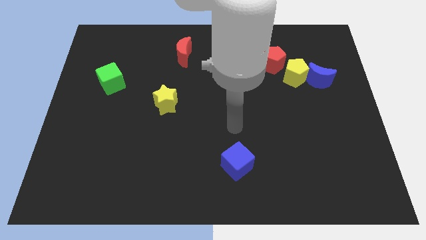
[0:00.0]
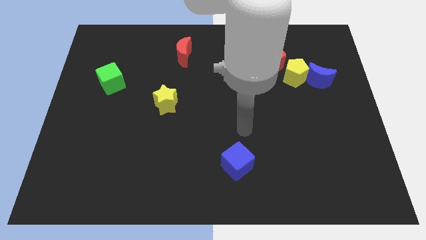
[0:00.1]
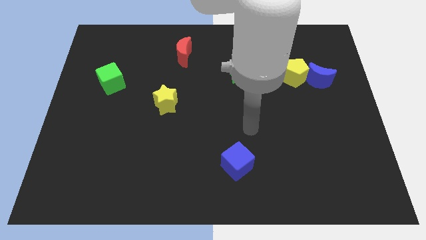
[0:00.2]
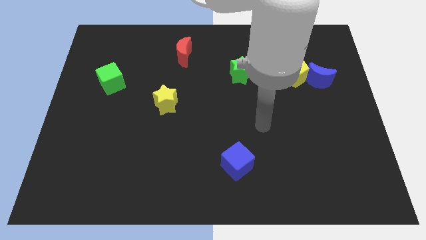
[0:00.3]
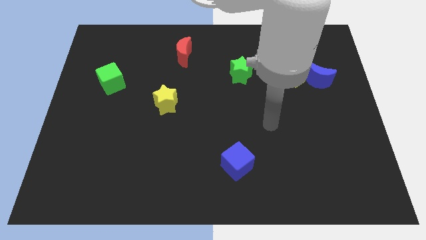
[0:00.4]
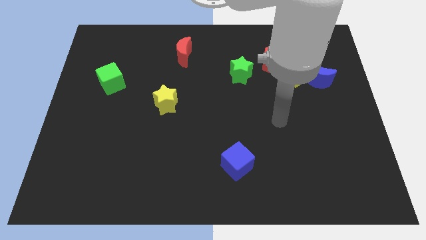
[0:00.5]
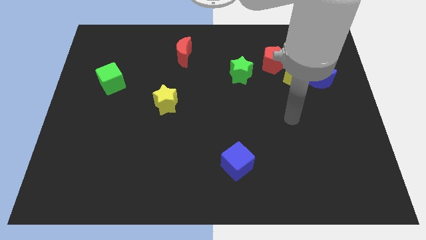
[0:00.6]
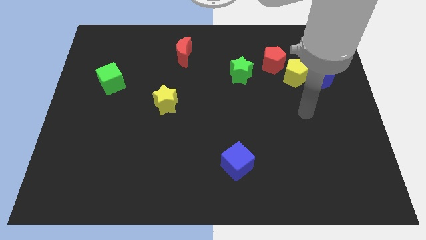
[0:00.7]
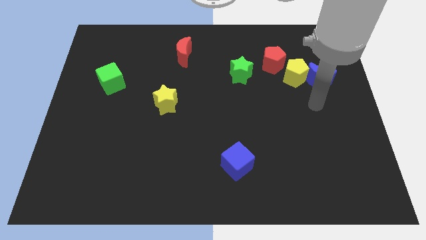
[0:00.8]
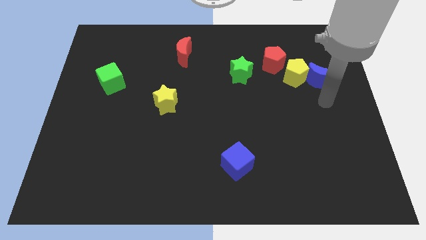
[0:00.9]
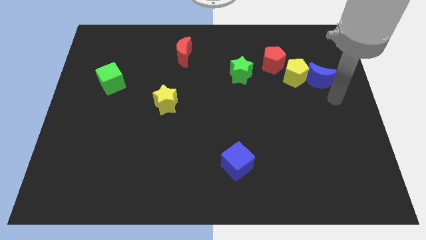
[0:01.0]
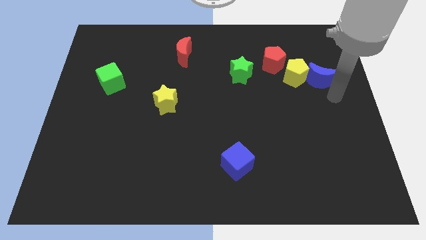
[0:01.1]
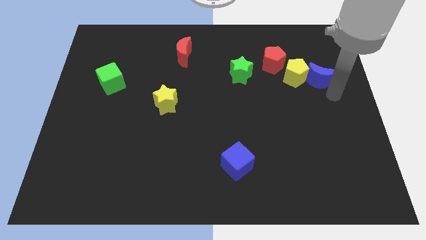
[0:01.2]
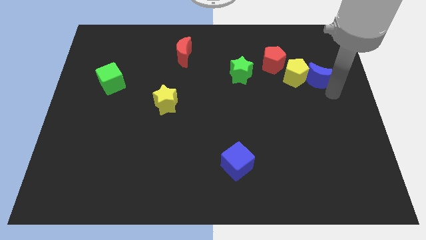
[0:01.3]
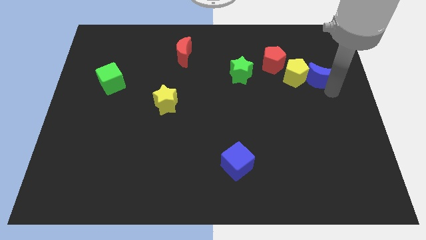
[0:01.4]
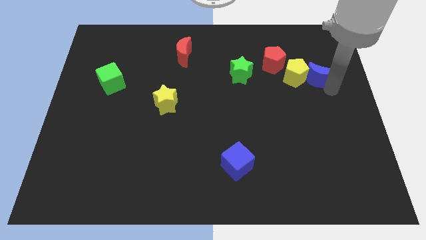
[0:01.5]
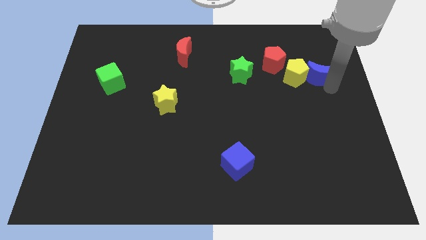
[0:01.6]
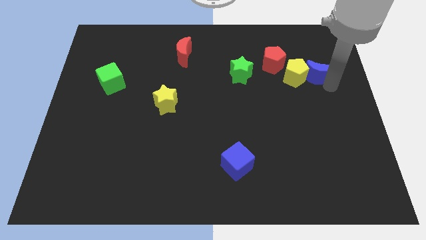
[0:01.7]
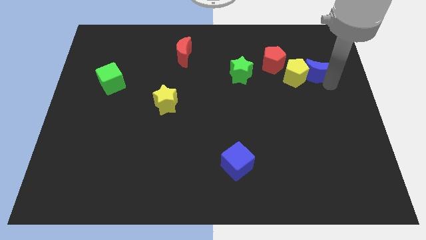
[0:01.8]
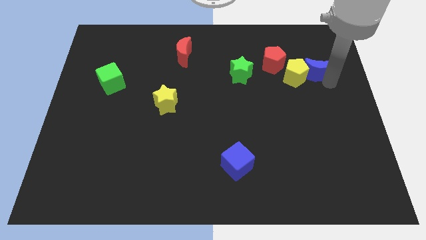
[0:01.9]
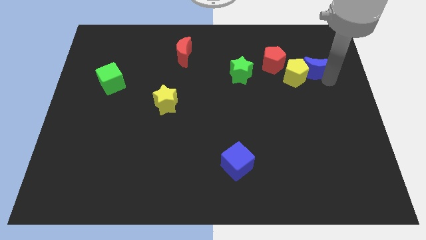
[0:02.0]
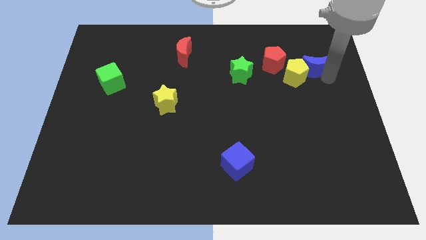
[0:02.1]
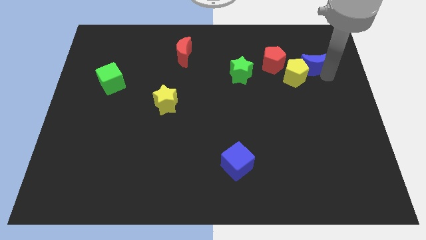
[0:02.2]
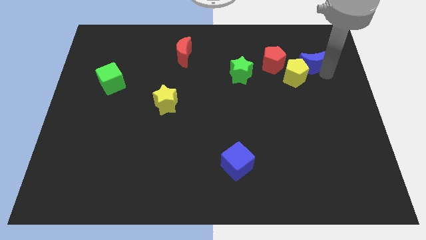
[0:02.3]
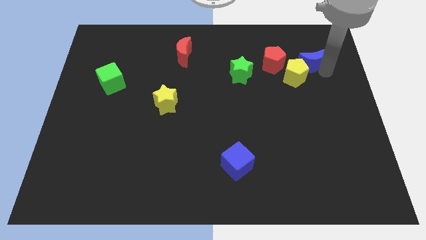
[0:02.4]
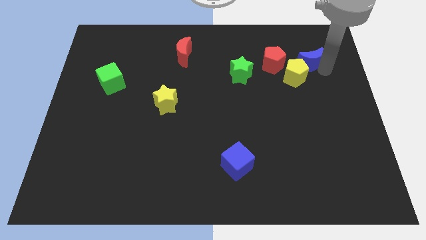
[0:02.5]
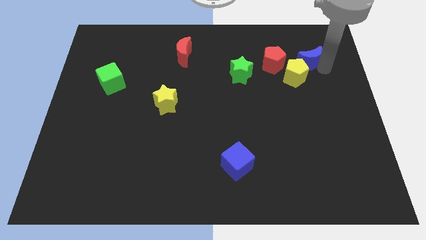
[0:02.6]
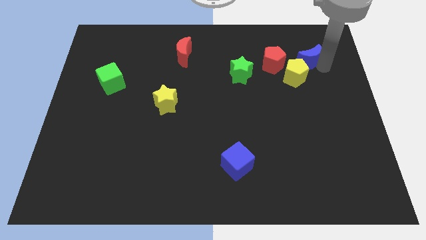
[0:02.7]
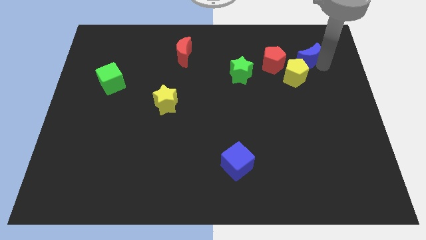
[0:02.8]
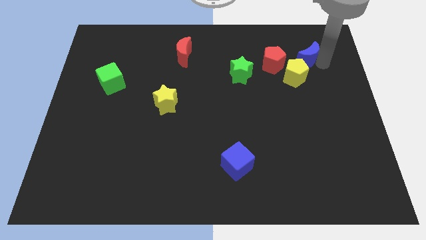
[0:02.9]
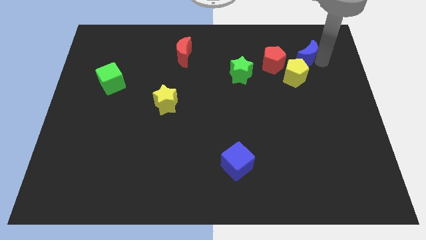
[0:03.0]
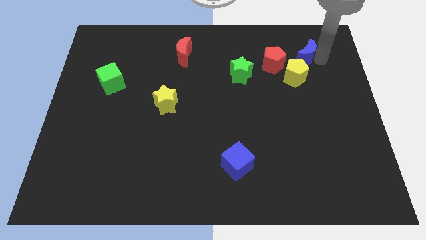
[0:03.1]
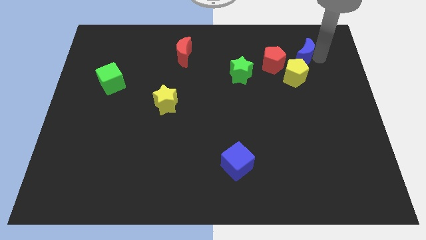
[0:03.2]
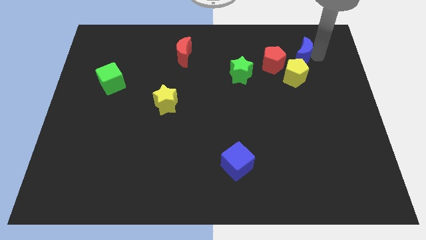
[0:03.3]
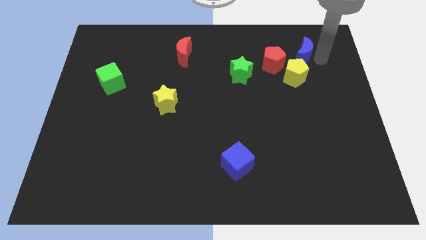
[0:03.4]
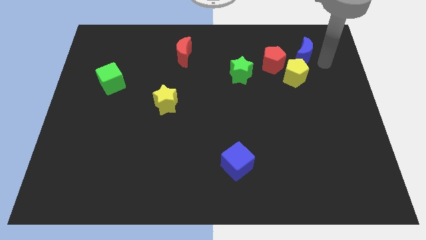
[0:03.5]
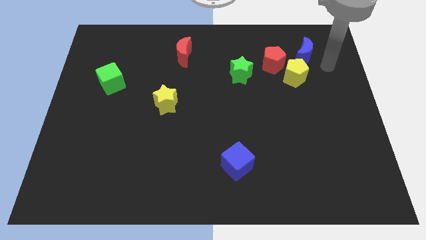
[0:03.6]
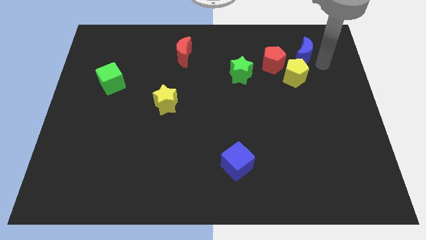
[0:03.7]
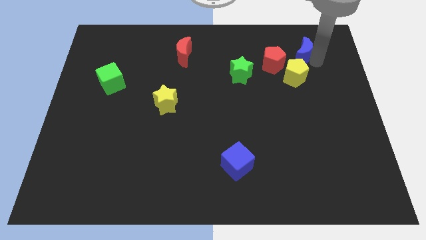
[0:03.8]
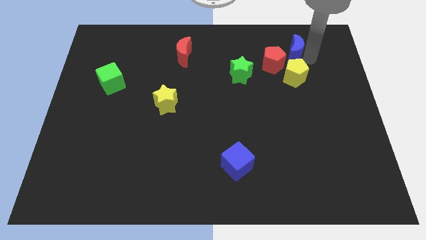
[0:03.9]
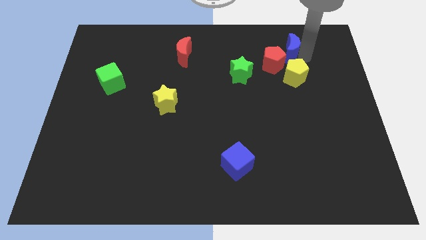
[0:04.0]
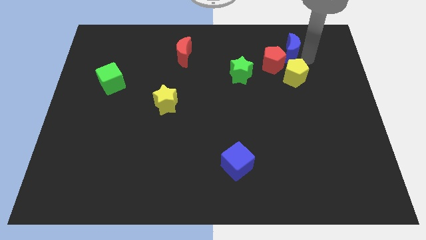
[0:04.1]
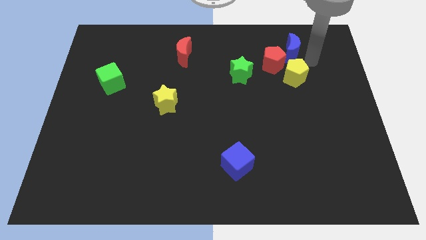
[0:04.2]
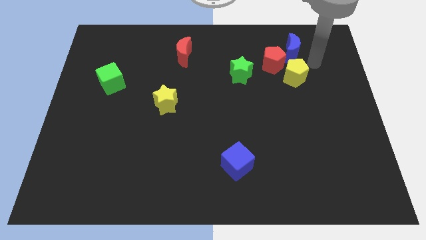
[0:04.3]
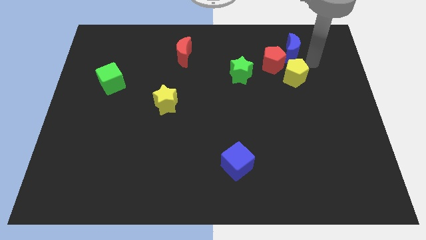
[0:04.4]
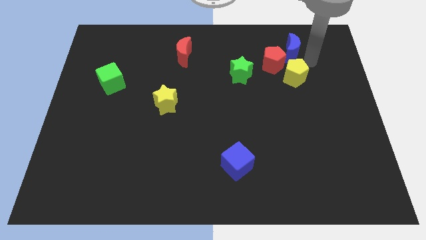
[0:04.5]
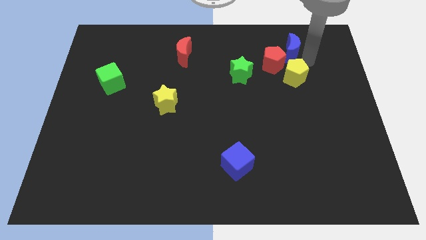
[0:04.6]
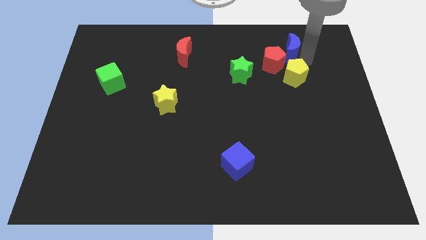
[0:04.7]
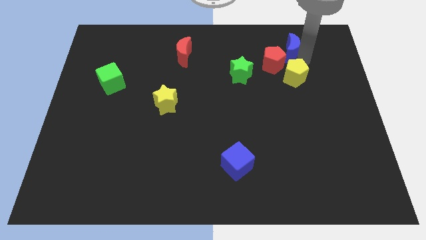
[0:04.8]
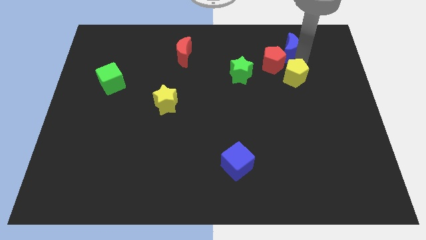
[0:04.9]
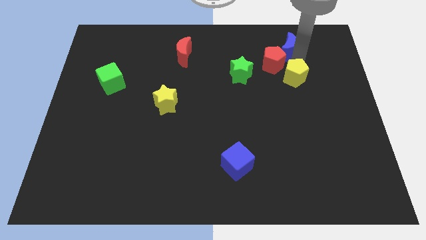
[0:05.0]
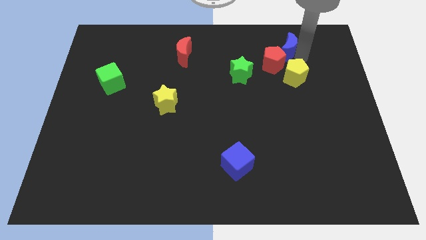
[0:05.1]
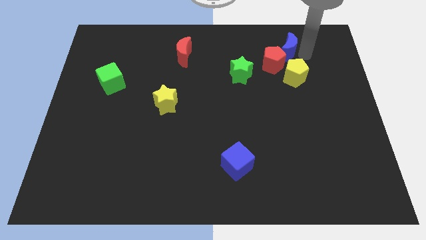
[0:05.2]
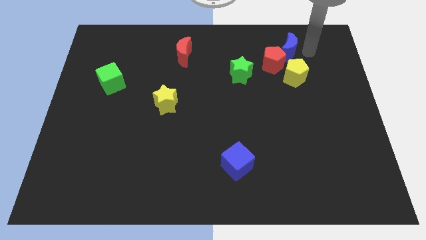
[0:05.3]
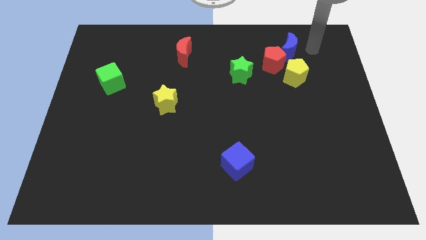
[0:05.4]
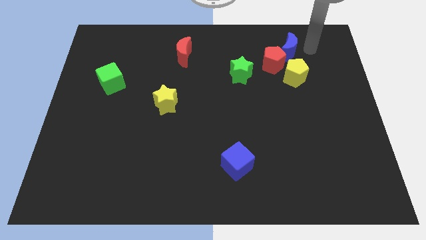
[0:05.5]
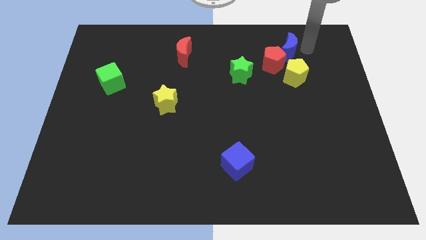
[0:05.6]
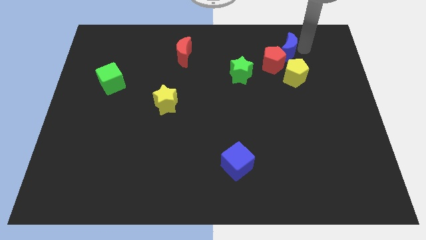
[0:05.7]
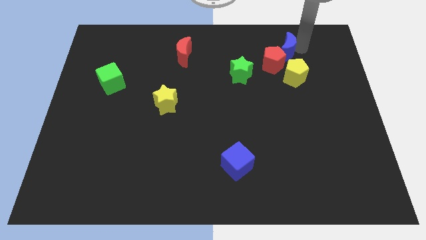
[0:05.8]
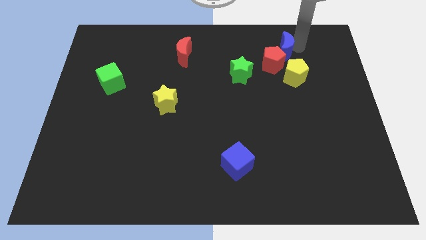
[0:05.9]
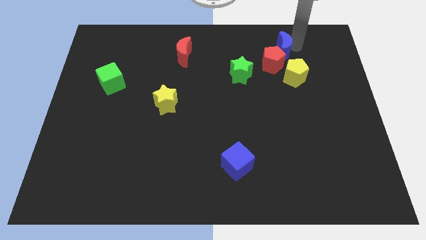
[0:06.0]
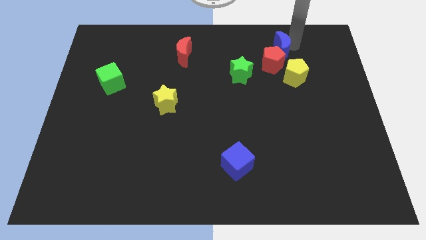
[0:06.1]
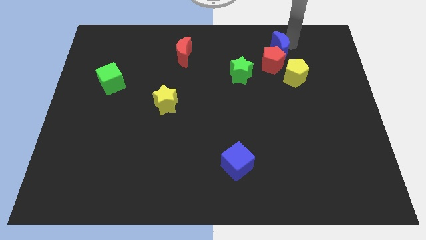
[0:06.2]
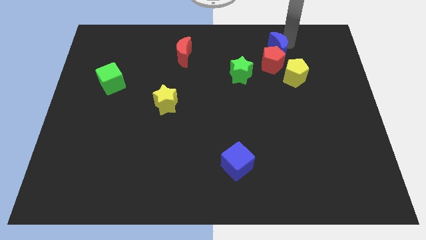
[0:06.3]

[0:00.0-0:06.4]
slide the blue moon to the top left side of the yellow pentagon

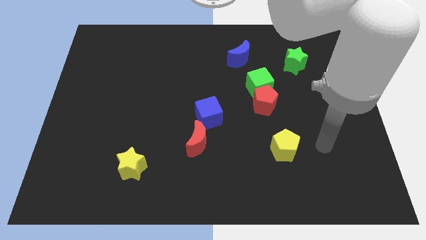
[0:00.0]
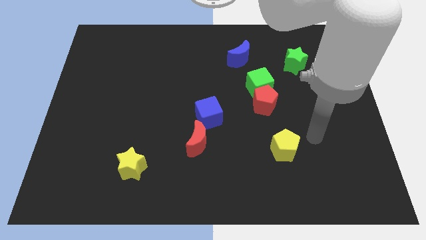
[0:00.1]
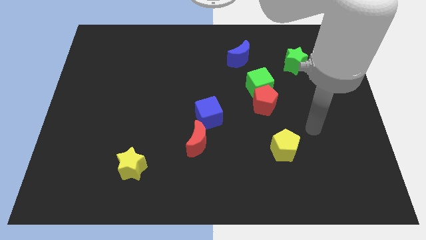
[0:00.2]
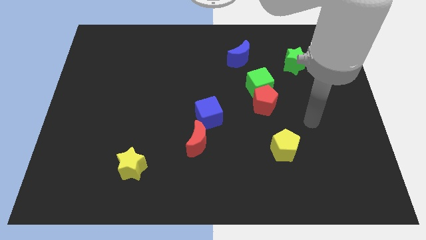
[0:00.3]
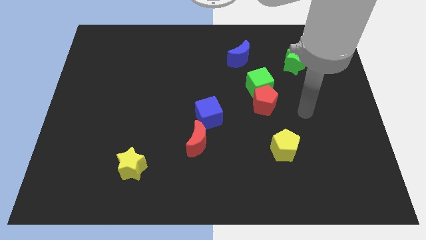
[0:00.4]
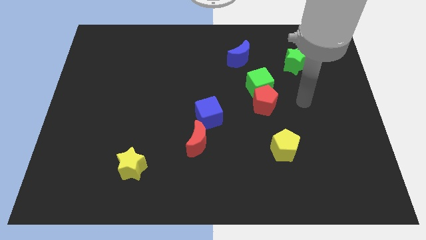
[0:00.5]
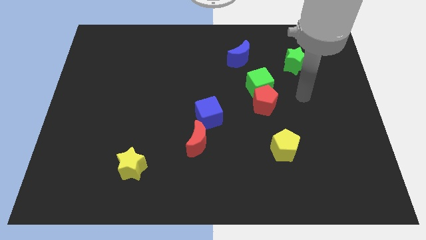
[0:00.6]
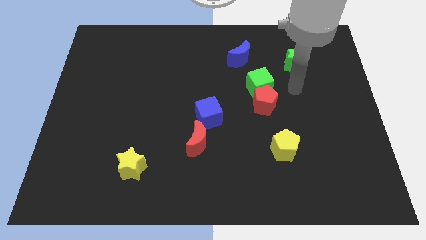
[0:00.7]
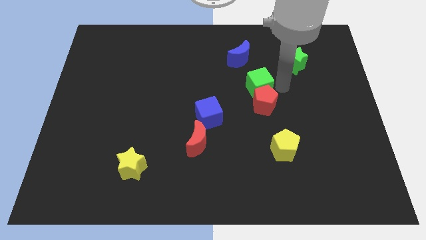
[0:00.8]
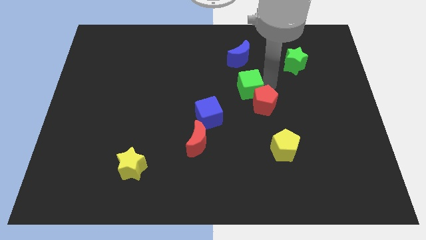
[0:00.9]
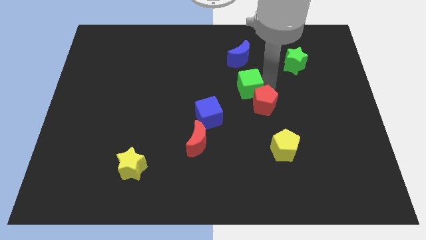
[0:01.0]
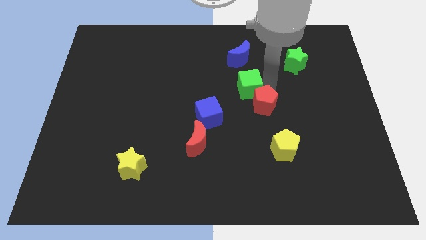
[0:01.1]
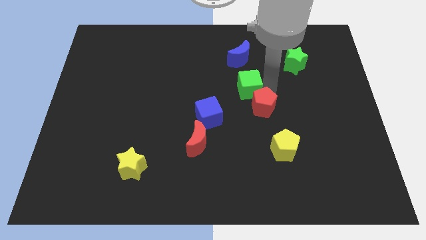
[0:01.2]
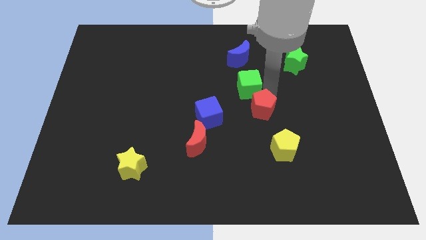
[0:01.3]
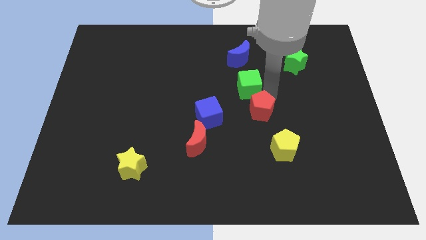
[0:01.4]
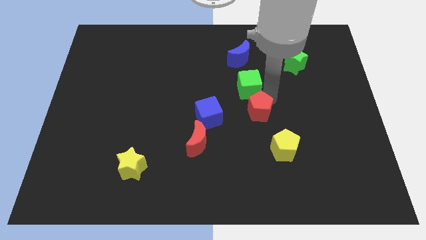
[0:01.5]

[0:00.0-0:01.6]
put the red pentagon diagonally up and to the left of the yellow pentagon
